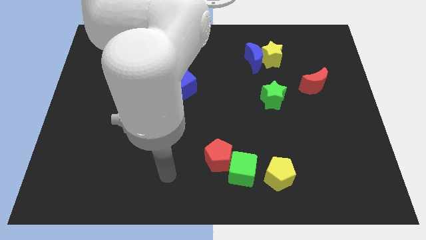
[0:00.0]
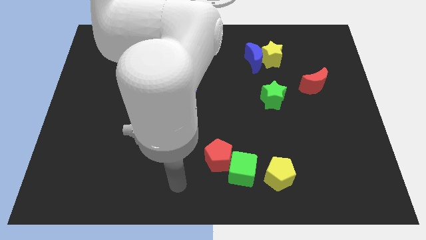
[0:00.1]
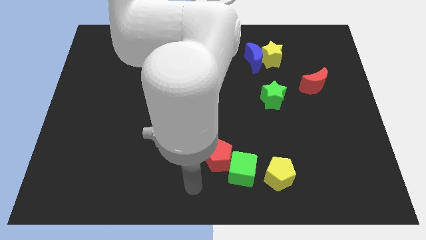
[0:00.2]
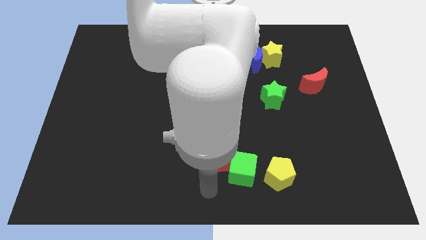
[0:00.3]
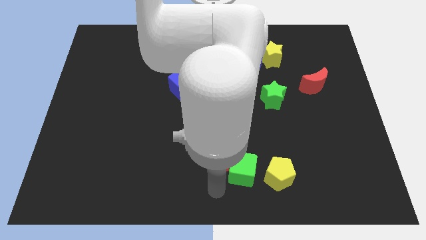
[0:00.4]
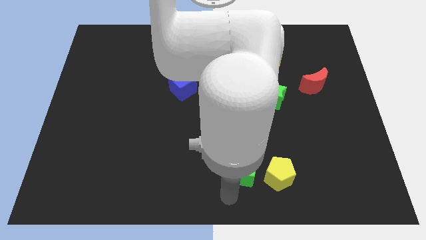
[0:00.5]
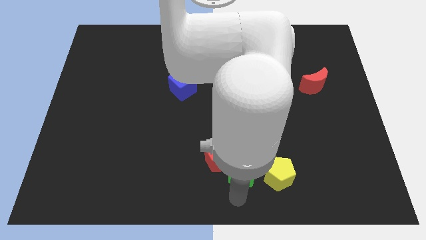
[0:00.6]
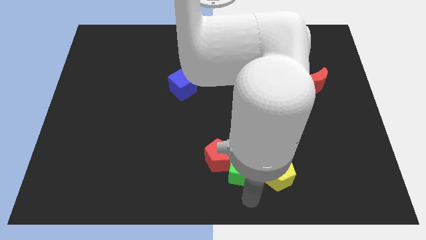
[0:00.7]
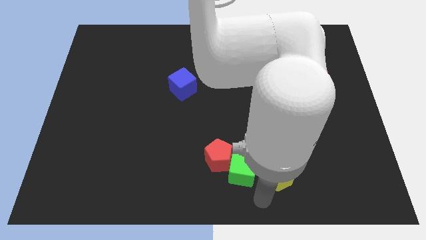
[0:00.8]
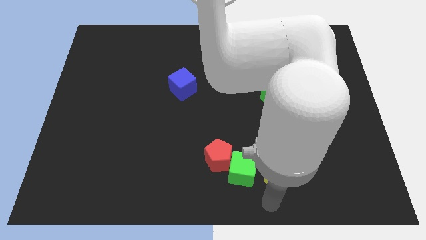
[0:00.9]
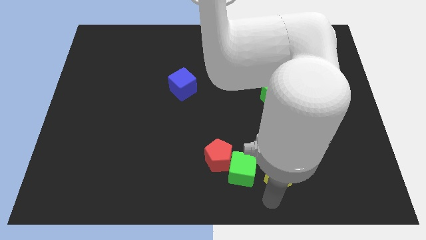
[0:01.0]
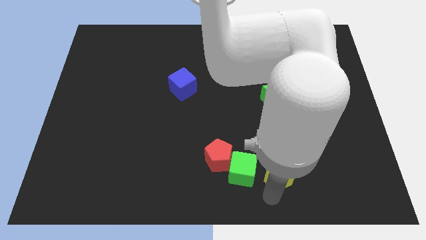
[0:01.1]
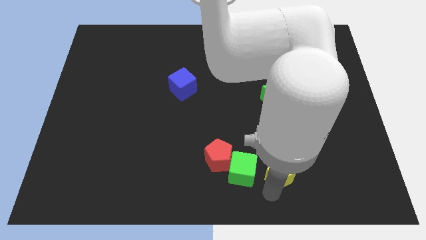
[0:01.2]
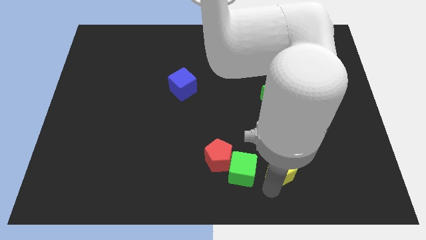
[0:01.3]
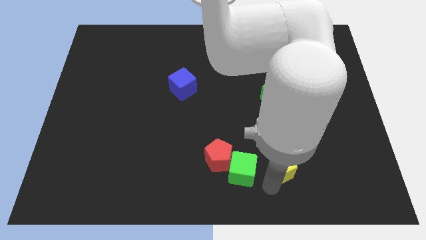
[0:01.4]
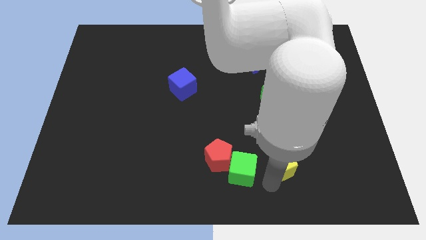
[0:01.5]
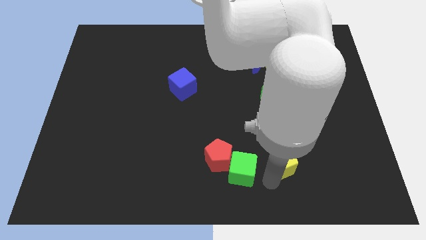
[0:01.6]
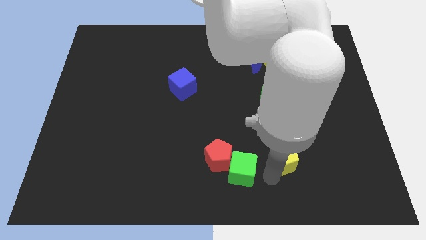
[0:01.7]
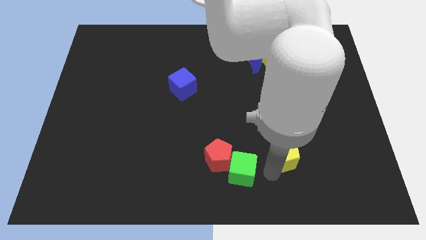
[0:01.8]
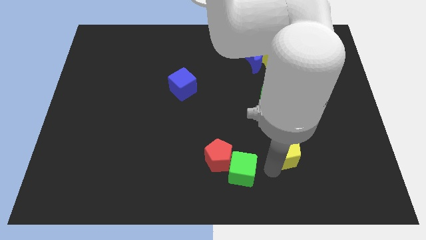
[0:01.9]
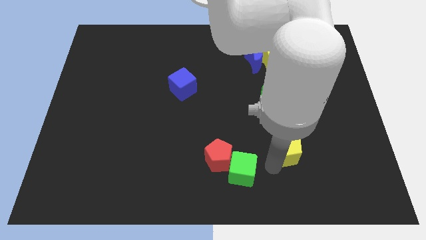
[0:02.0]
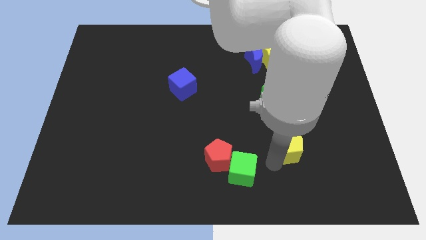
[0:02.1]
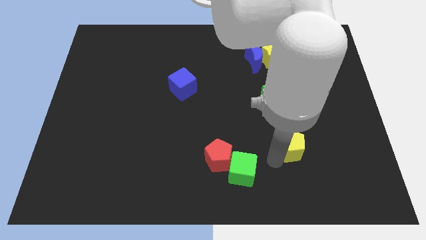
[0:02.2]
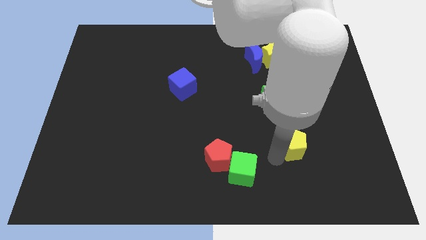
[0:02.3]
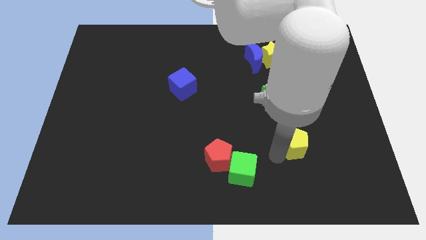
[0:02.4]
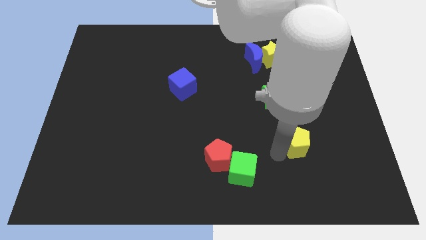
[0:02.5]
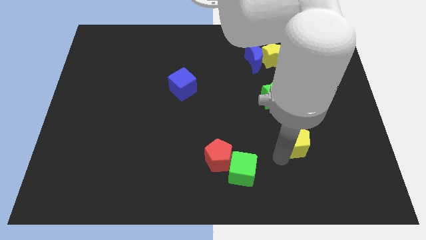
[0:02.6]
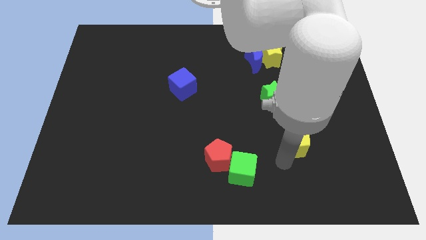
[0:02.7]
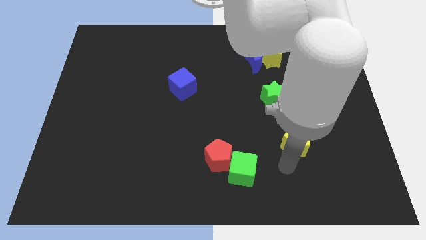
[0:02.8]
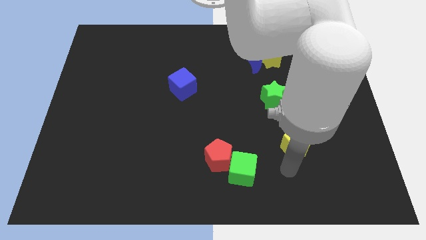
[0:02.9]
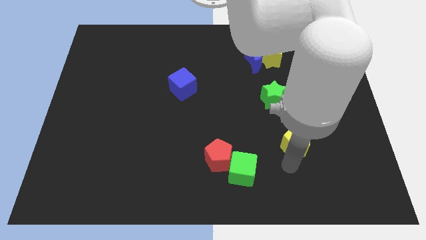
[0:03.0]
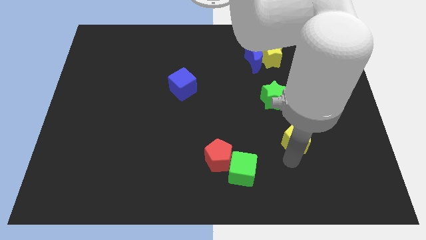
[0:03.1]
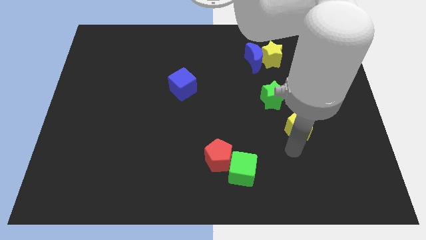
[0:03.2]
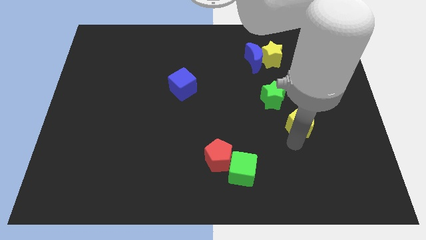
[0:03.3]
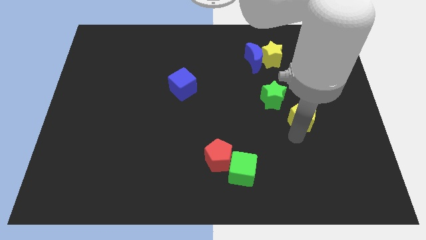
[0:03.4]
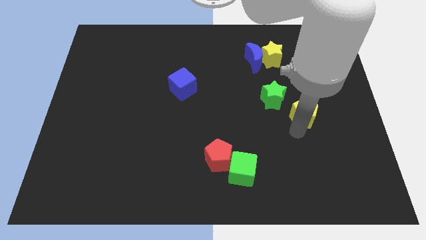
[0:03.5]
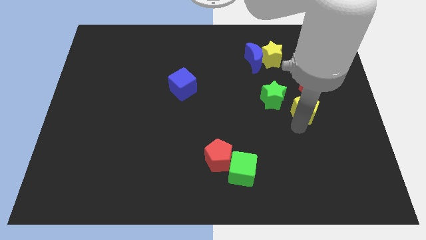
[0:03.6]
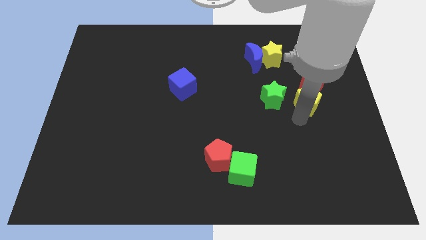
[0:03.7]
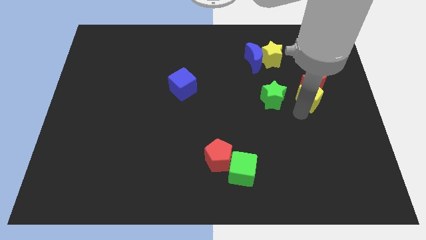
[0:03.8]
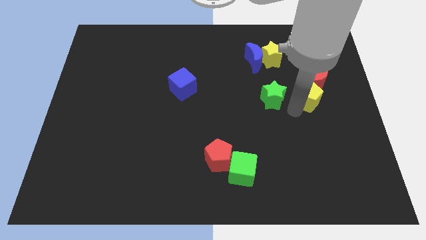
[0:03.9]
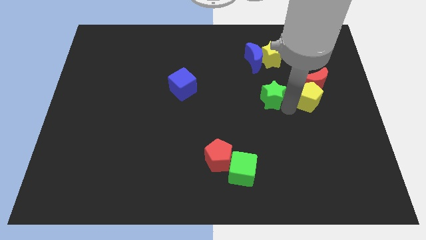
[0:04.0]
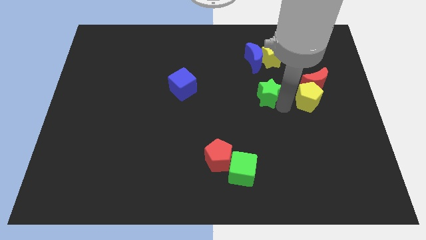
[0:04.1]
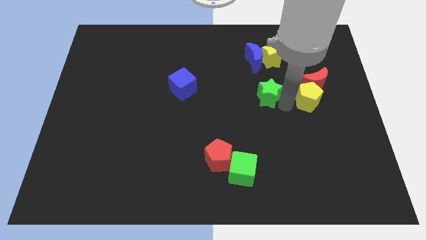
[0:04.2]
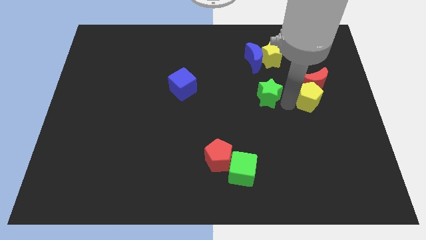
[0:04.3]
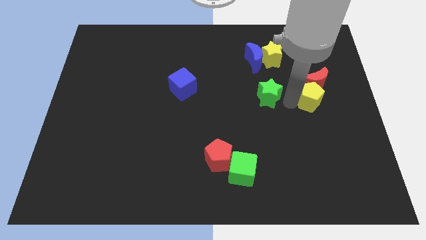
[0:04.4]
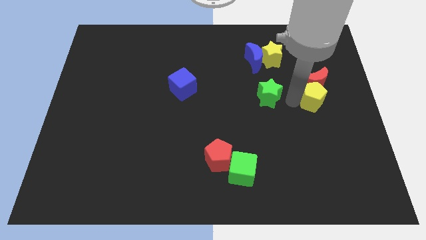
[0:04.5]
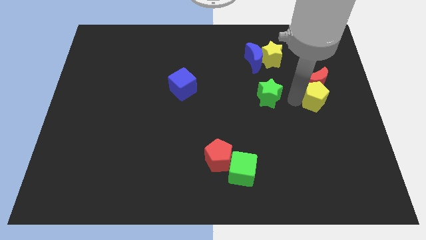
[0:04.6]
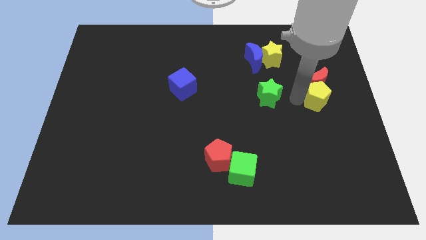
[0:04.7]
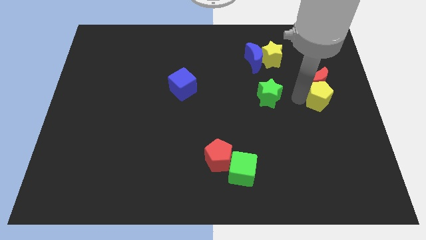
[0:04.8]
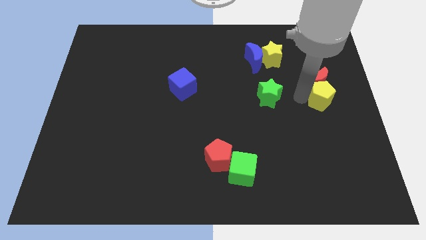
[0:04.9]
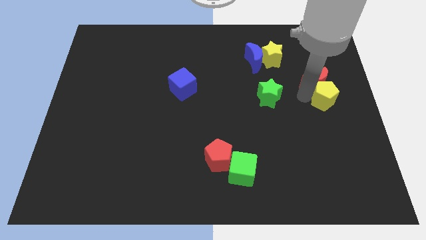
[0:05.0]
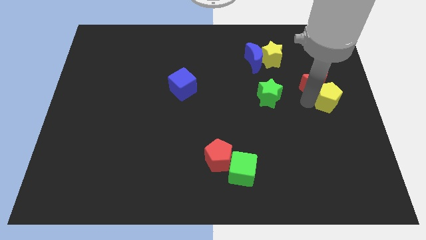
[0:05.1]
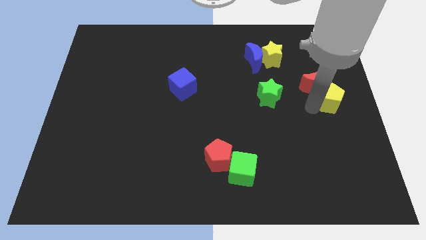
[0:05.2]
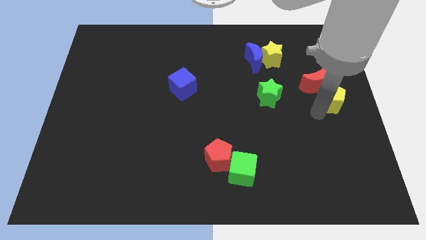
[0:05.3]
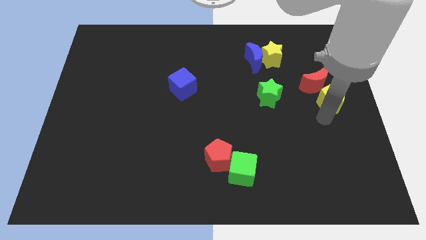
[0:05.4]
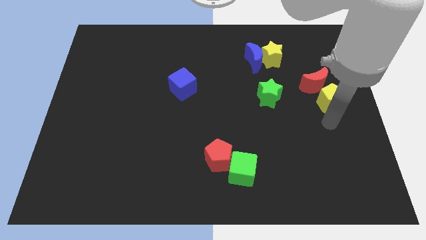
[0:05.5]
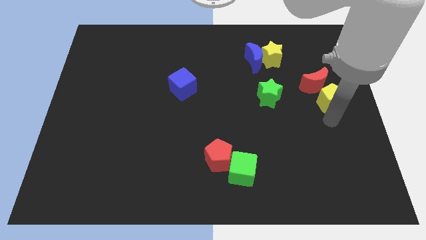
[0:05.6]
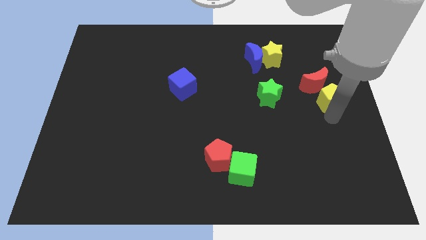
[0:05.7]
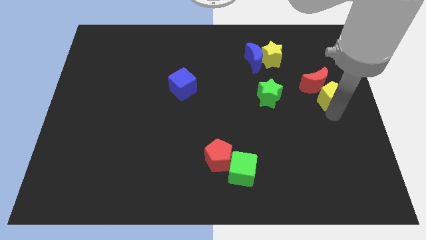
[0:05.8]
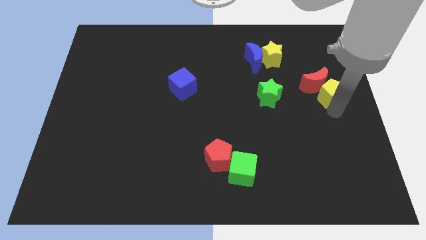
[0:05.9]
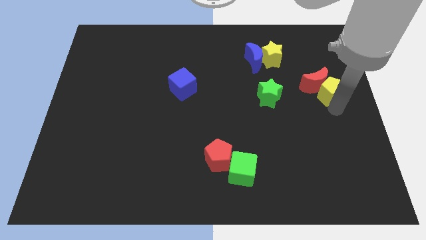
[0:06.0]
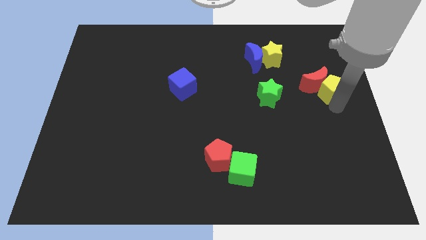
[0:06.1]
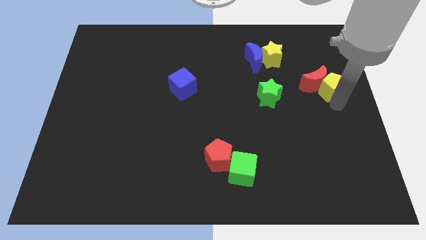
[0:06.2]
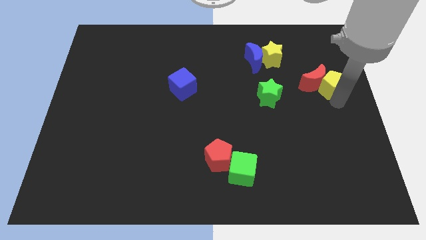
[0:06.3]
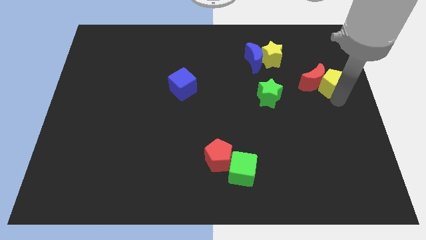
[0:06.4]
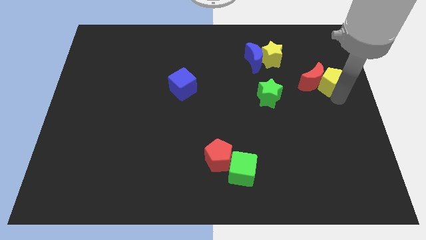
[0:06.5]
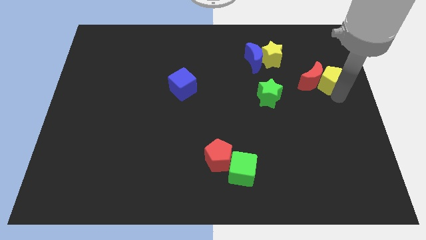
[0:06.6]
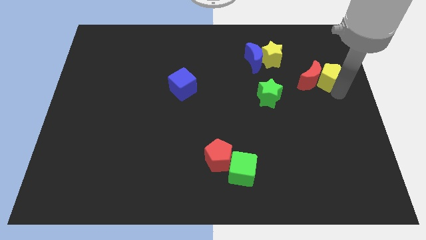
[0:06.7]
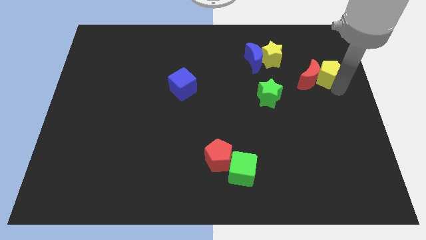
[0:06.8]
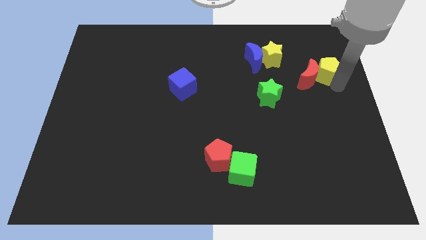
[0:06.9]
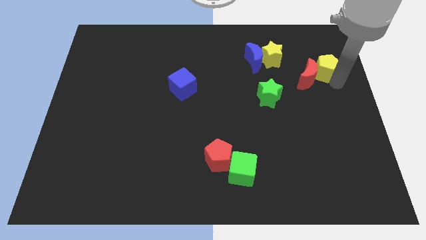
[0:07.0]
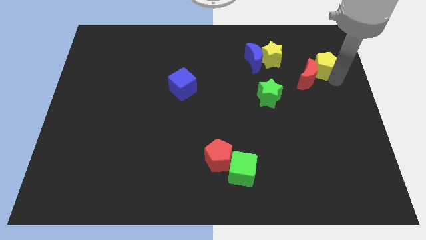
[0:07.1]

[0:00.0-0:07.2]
put the yellow pentagon above the red moon

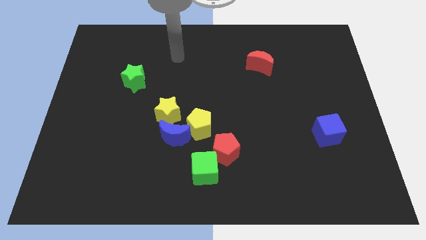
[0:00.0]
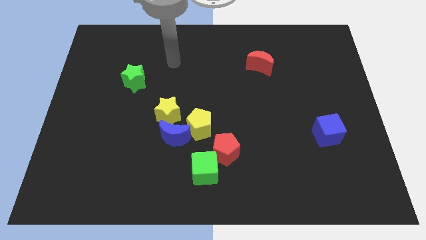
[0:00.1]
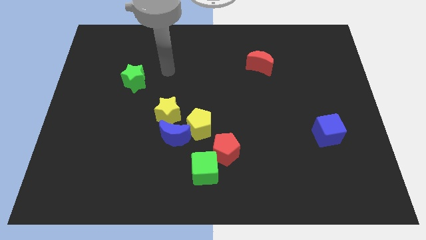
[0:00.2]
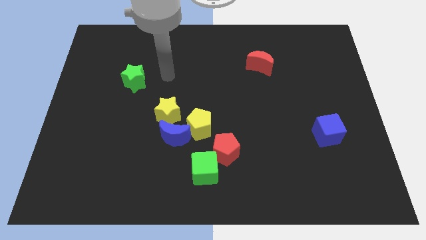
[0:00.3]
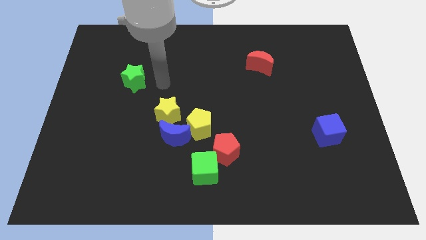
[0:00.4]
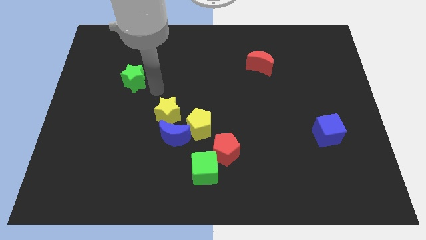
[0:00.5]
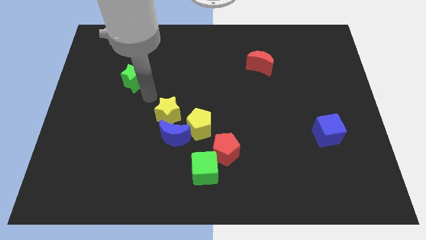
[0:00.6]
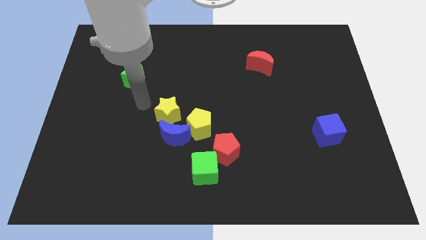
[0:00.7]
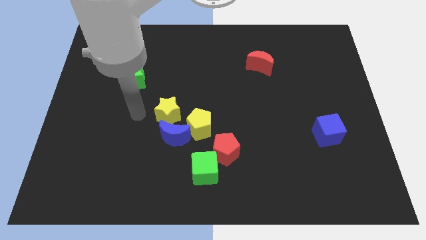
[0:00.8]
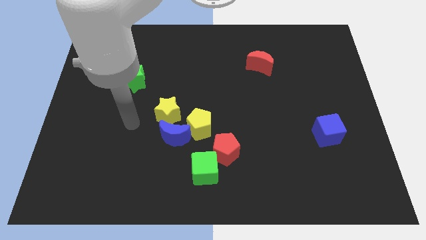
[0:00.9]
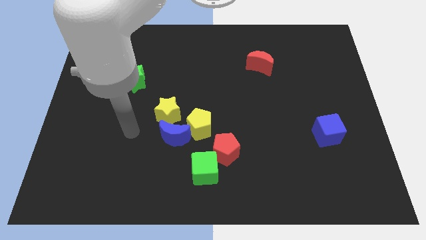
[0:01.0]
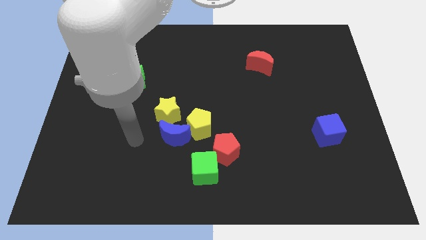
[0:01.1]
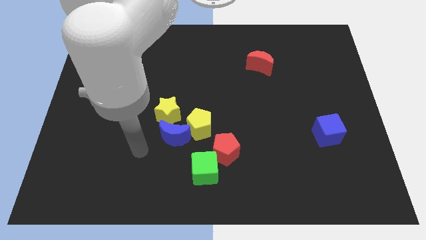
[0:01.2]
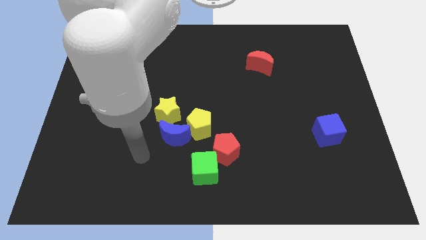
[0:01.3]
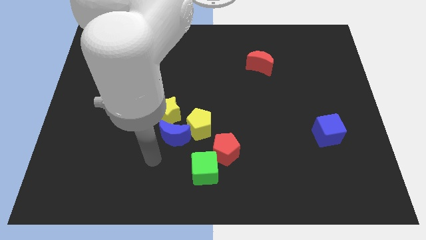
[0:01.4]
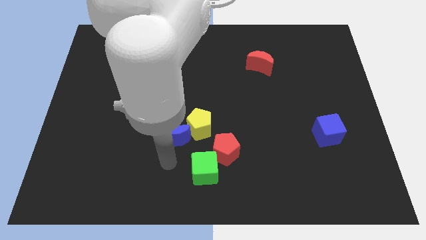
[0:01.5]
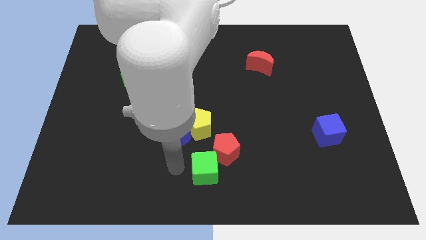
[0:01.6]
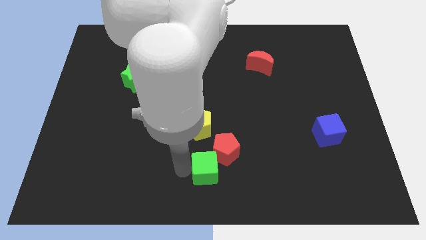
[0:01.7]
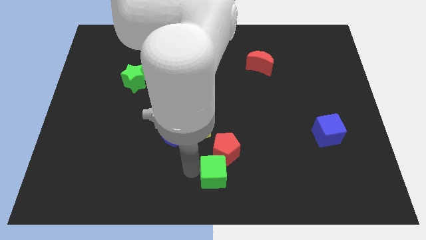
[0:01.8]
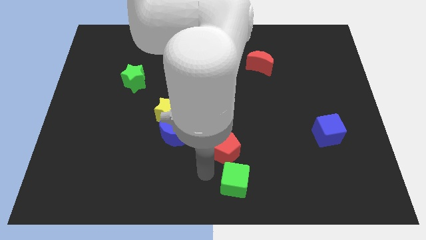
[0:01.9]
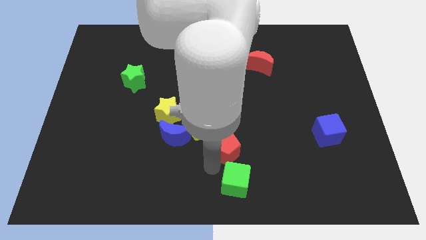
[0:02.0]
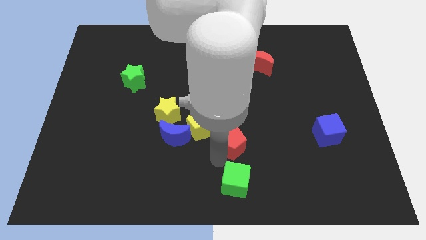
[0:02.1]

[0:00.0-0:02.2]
push the red pentagon to the right side of the yellow pentagon
